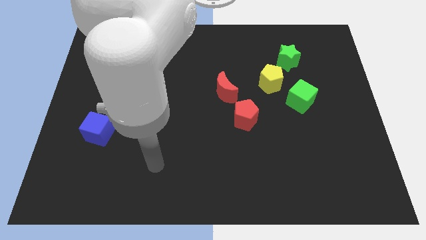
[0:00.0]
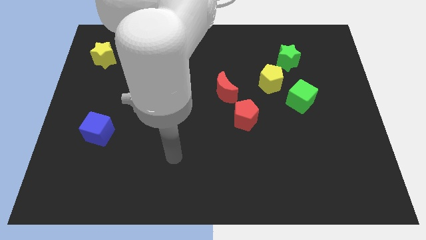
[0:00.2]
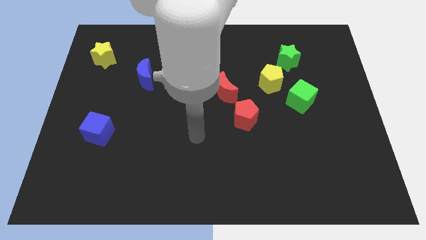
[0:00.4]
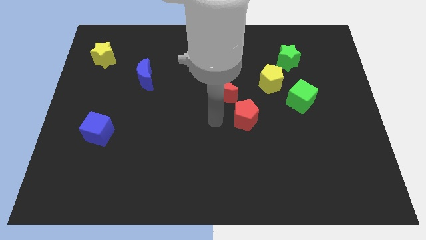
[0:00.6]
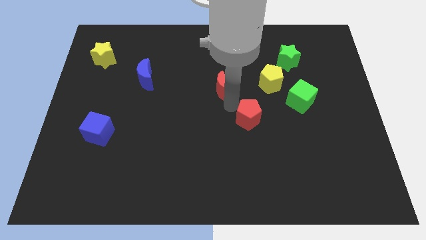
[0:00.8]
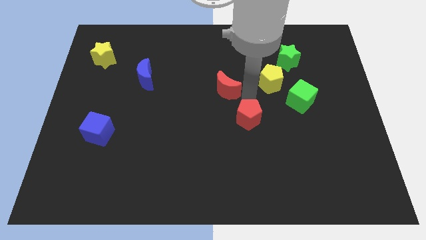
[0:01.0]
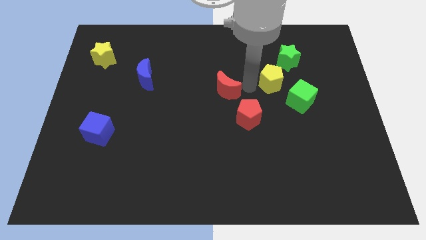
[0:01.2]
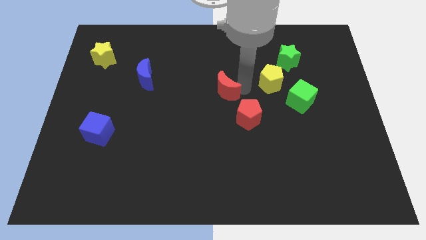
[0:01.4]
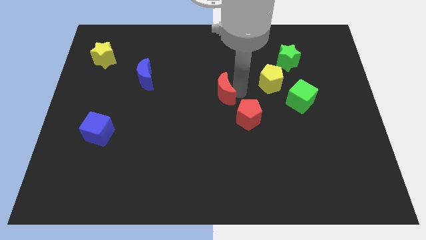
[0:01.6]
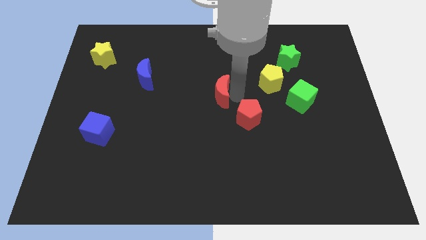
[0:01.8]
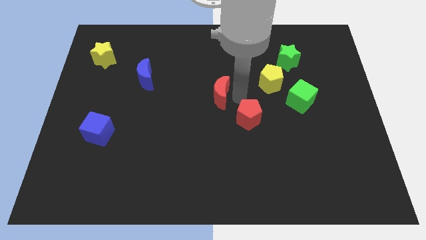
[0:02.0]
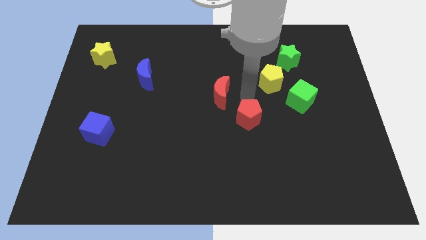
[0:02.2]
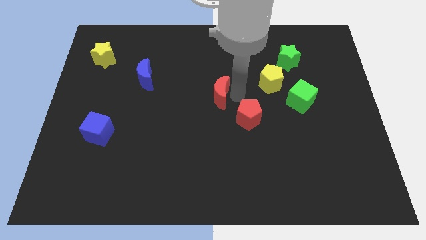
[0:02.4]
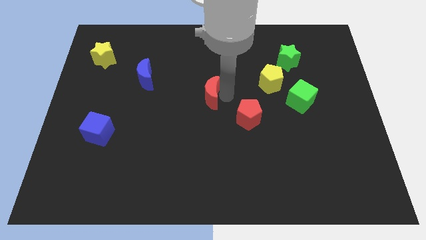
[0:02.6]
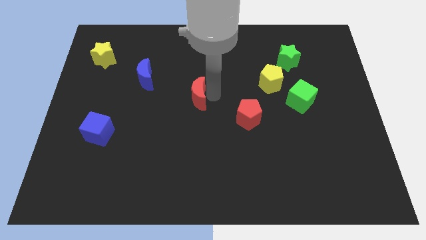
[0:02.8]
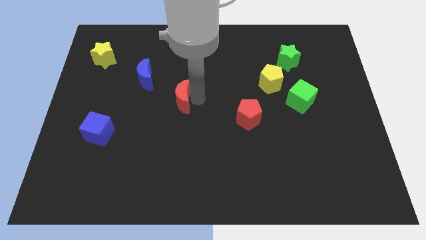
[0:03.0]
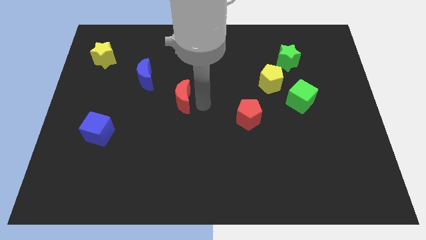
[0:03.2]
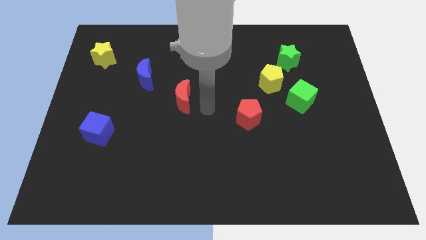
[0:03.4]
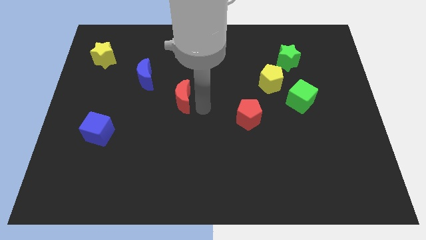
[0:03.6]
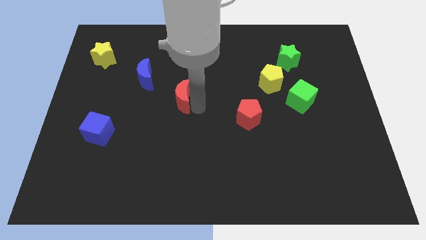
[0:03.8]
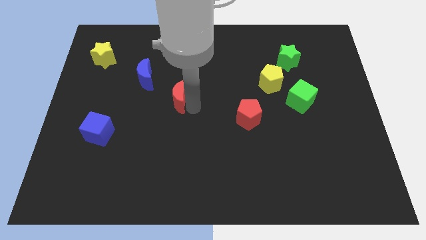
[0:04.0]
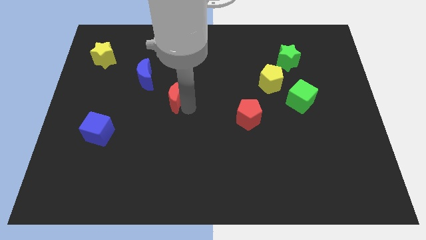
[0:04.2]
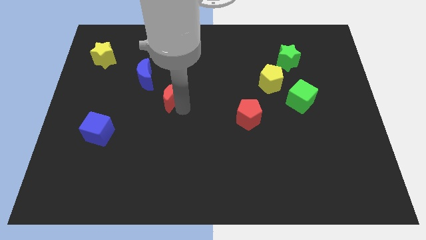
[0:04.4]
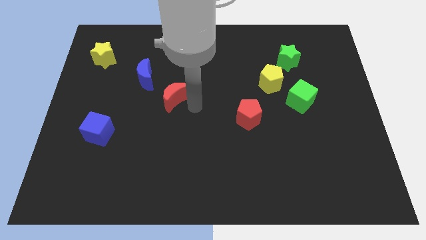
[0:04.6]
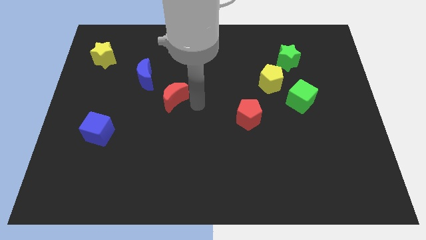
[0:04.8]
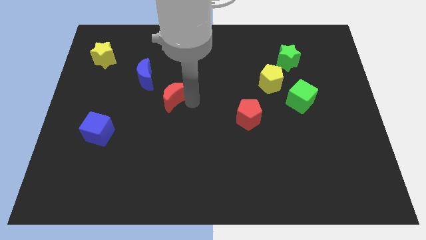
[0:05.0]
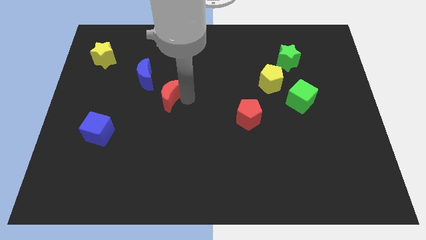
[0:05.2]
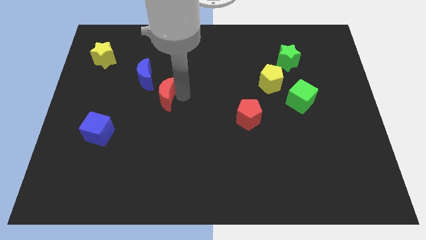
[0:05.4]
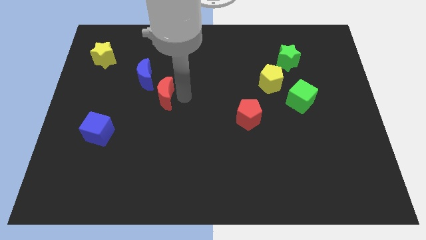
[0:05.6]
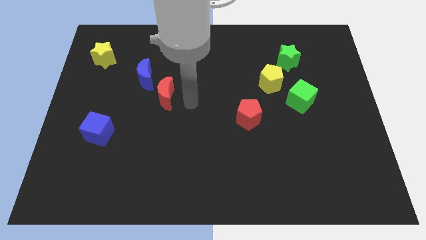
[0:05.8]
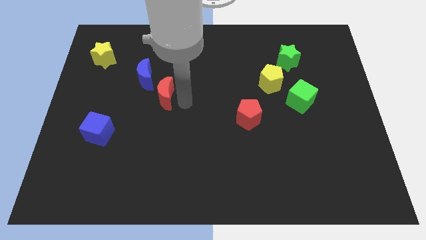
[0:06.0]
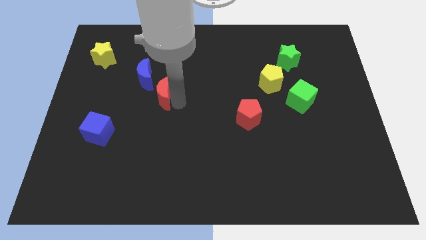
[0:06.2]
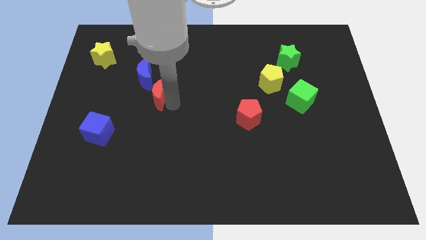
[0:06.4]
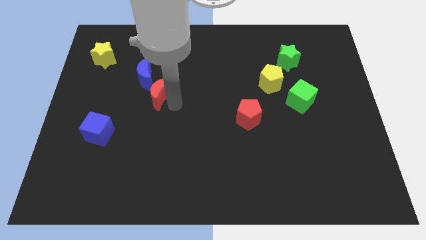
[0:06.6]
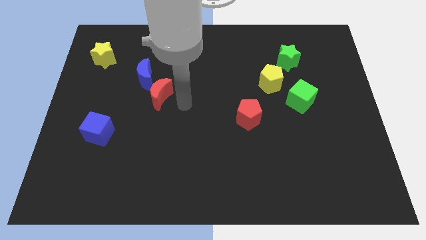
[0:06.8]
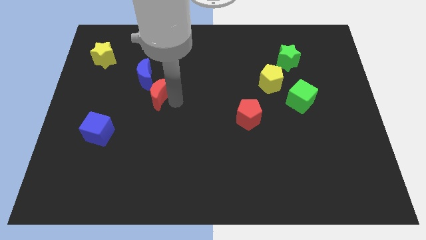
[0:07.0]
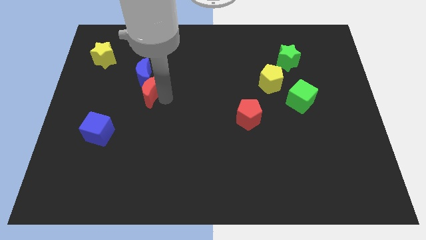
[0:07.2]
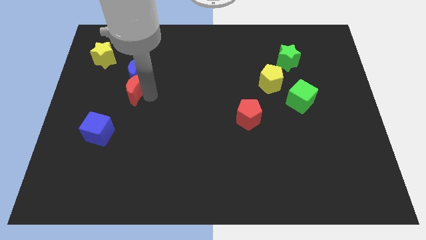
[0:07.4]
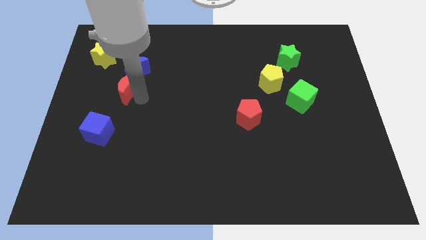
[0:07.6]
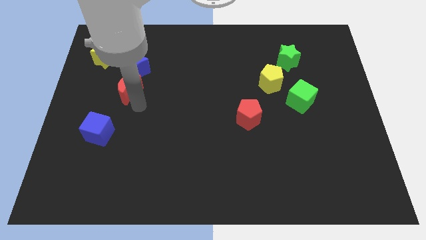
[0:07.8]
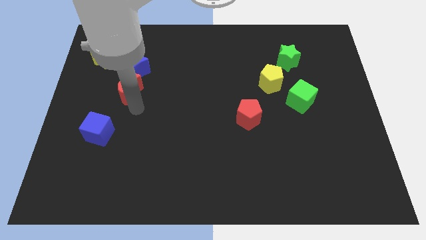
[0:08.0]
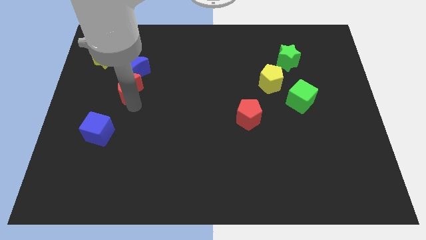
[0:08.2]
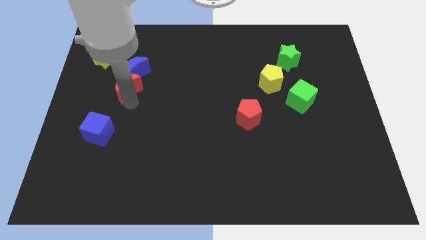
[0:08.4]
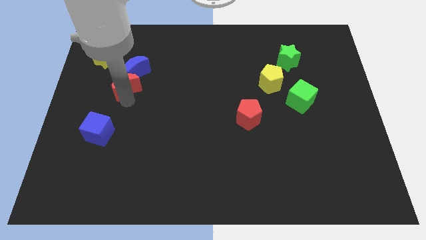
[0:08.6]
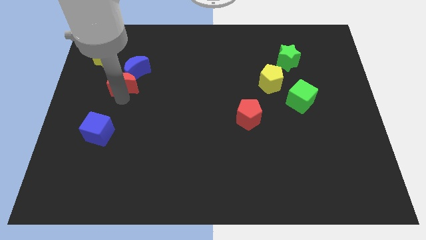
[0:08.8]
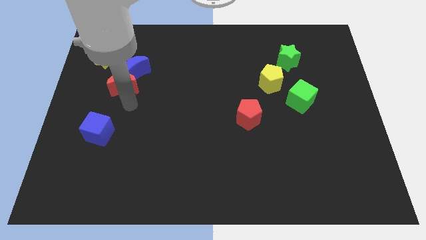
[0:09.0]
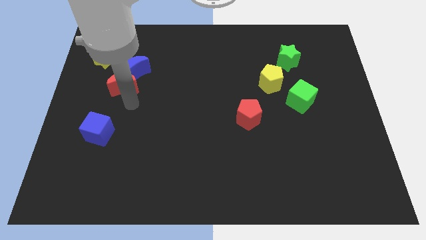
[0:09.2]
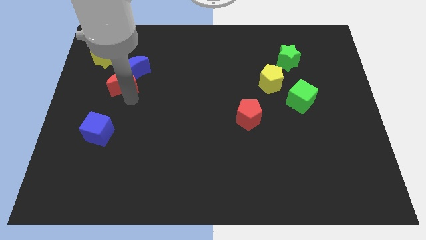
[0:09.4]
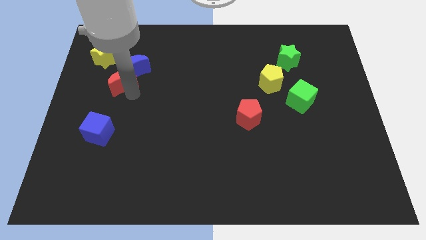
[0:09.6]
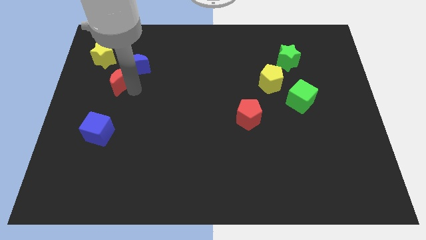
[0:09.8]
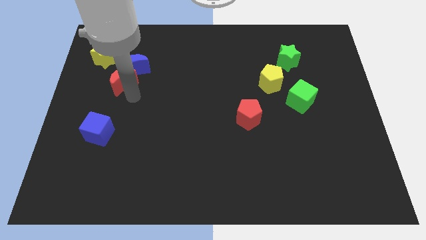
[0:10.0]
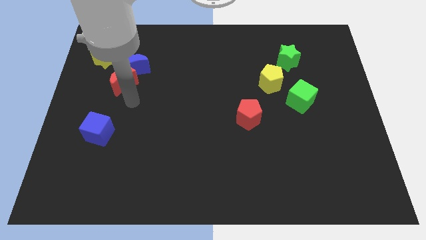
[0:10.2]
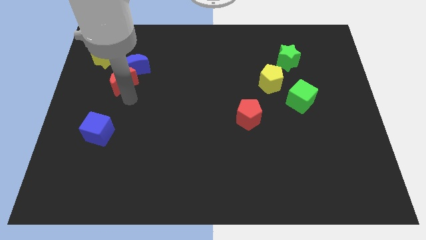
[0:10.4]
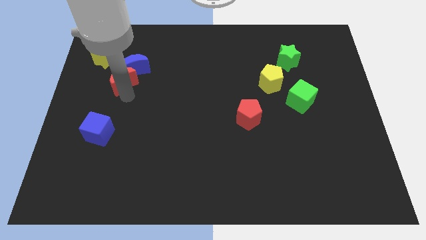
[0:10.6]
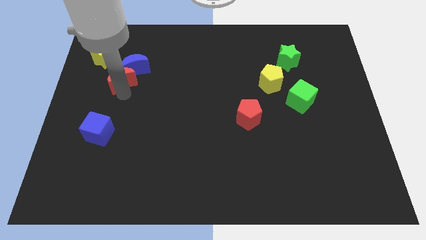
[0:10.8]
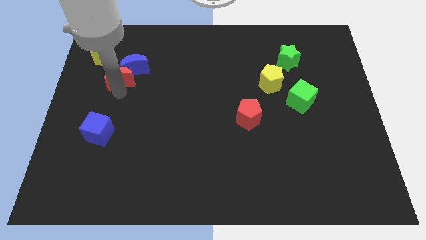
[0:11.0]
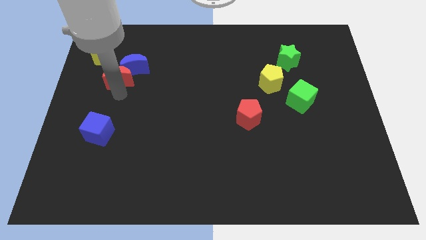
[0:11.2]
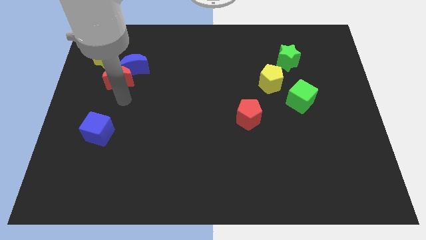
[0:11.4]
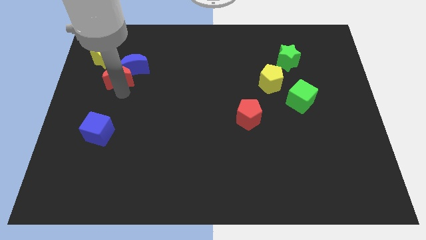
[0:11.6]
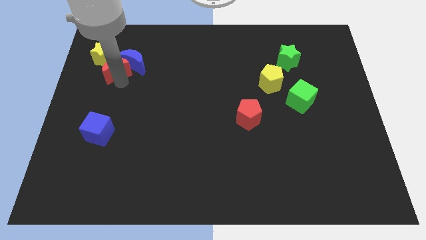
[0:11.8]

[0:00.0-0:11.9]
put the red moon to the yellow star

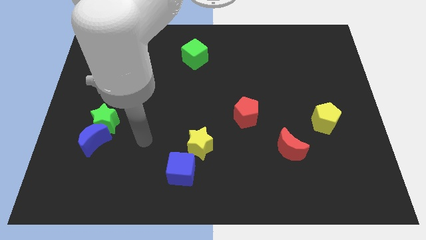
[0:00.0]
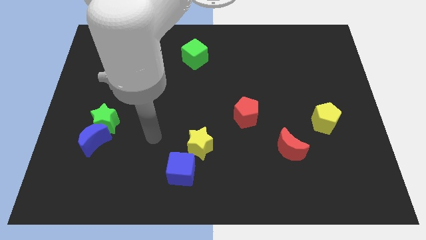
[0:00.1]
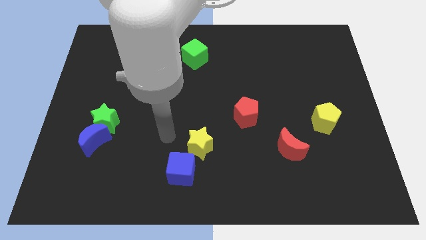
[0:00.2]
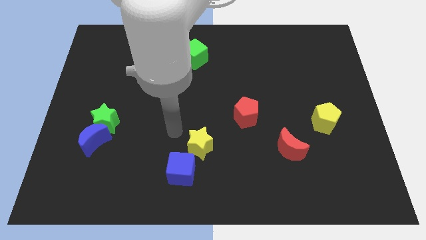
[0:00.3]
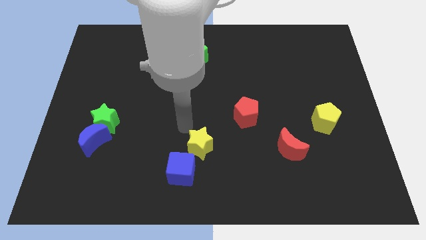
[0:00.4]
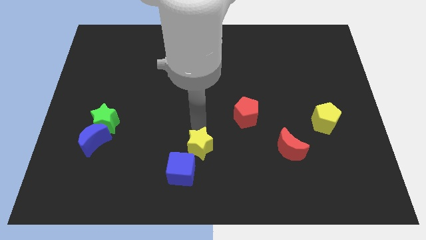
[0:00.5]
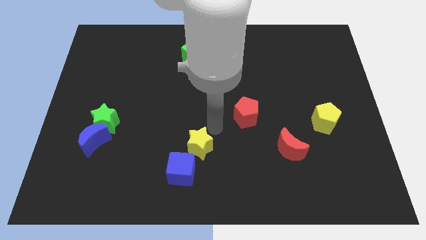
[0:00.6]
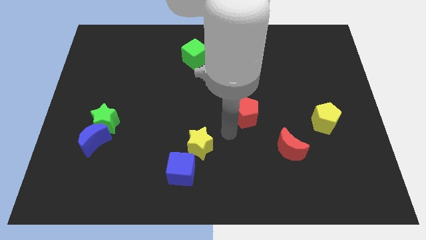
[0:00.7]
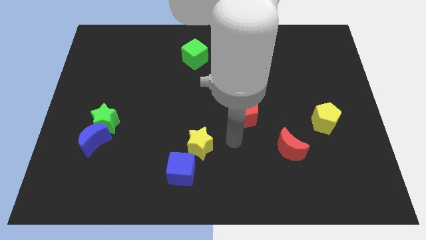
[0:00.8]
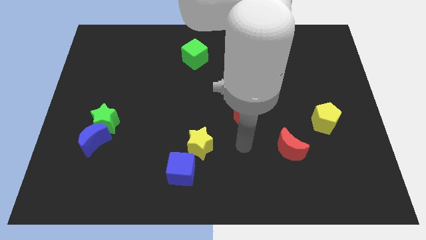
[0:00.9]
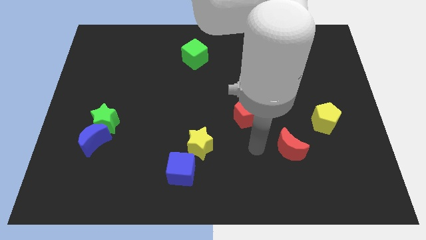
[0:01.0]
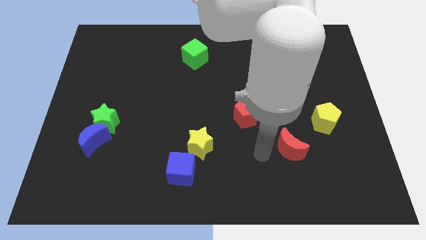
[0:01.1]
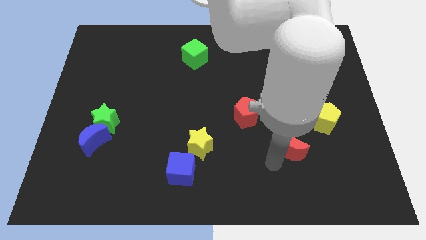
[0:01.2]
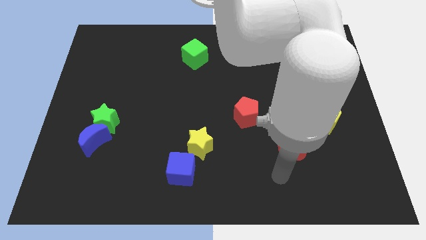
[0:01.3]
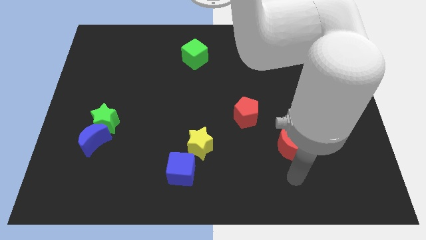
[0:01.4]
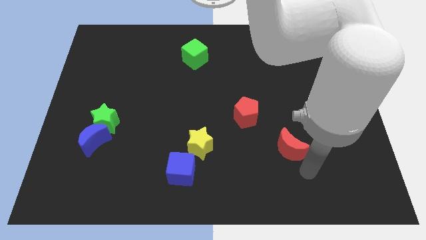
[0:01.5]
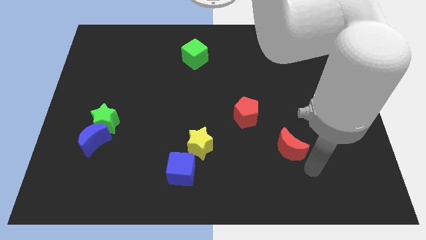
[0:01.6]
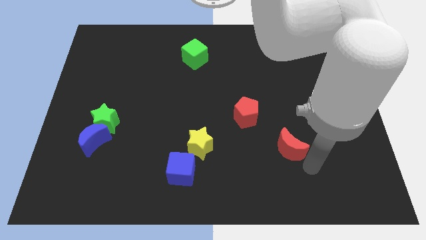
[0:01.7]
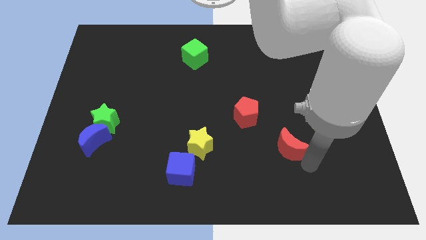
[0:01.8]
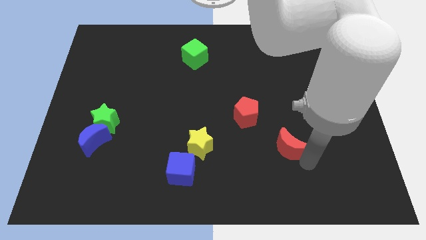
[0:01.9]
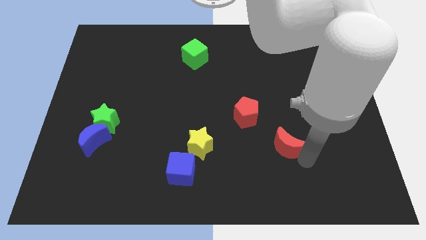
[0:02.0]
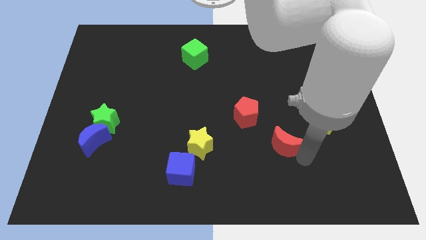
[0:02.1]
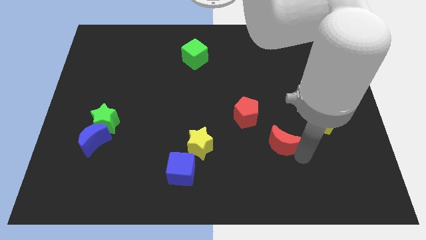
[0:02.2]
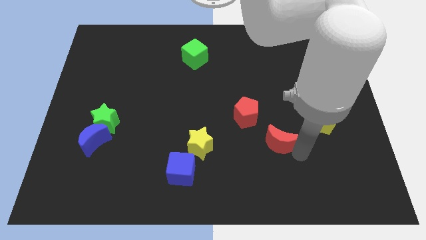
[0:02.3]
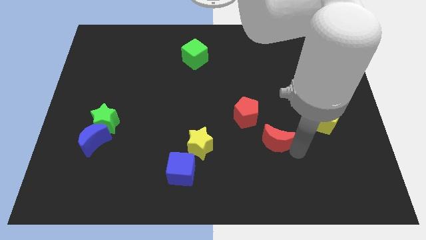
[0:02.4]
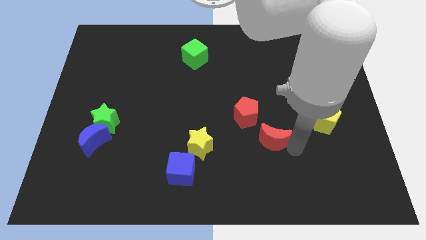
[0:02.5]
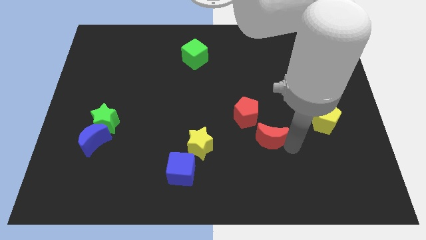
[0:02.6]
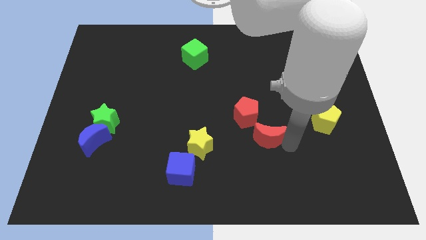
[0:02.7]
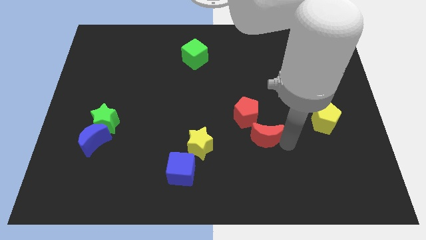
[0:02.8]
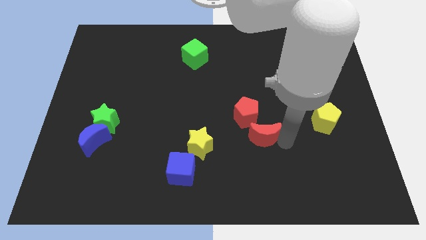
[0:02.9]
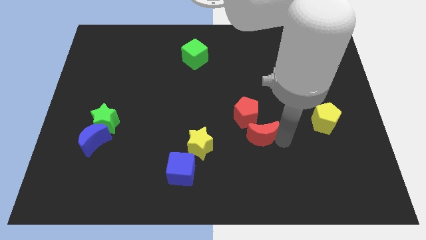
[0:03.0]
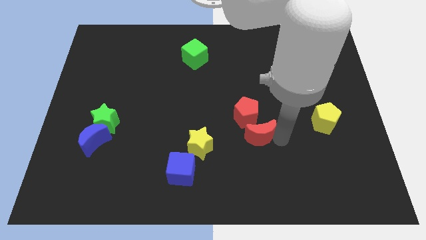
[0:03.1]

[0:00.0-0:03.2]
push the red moon close to the red pentagon
